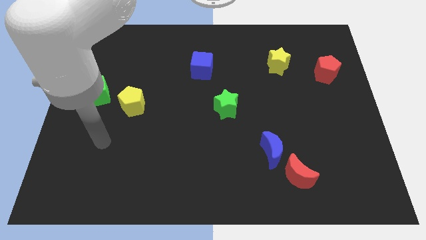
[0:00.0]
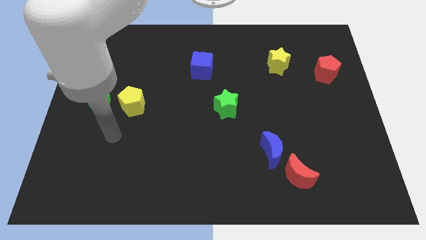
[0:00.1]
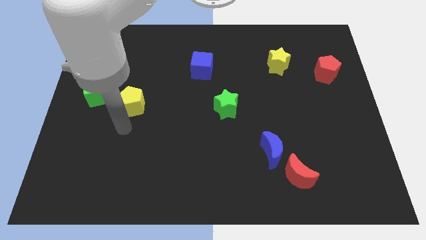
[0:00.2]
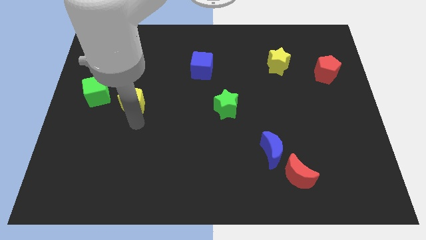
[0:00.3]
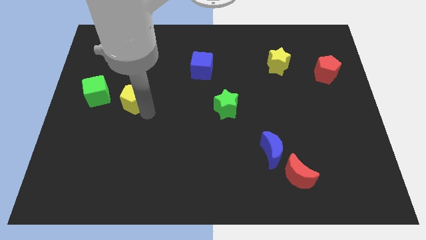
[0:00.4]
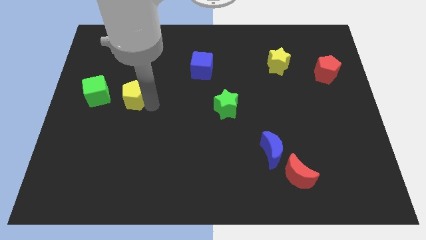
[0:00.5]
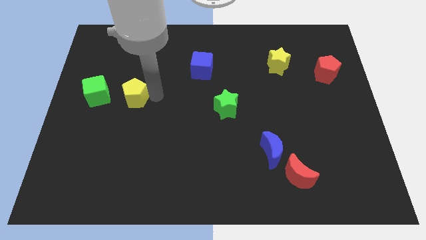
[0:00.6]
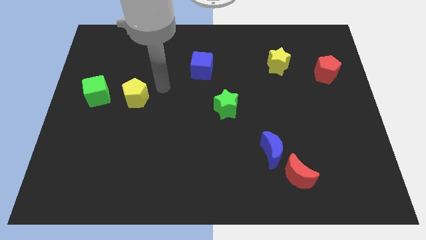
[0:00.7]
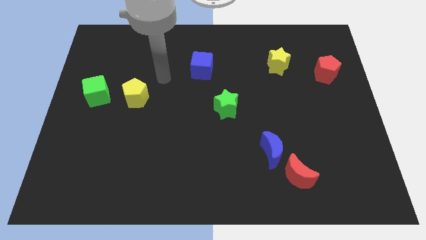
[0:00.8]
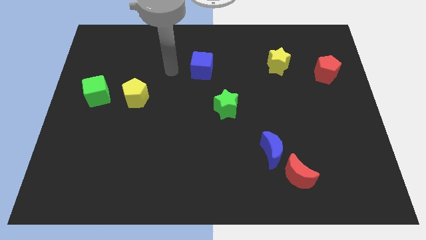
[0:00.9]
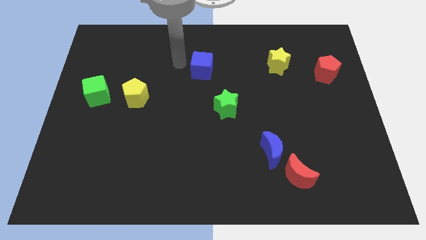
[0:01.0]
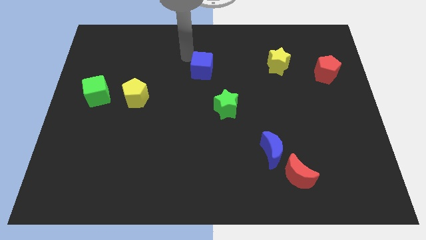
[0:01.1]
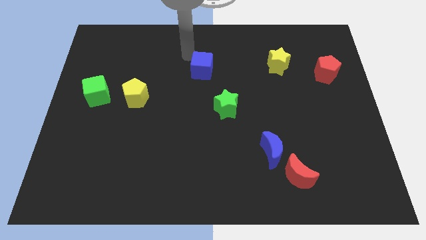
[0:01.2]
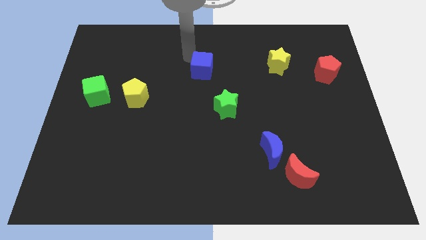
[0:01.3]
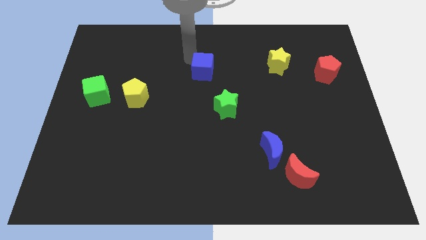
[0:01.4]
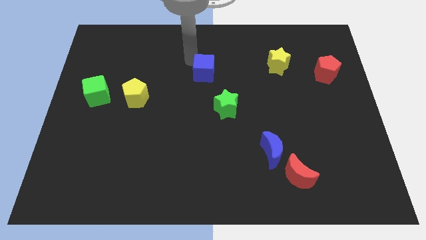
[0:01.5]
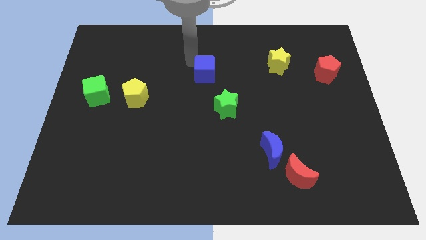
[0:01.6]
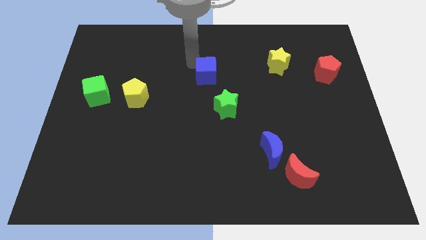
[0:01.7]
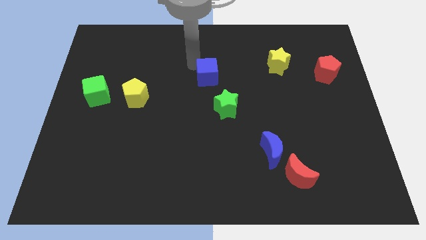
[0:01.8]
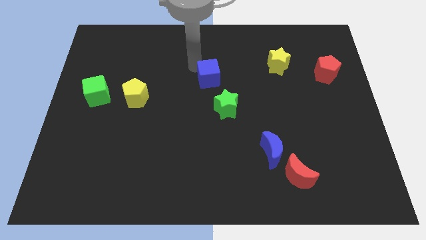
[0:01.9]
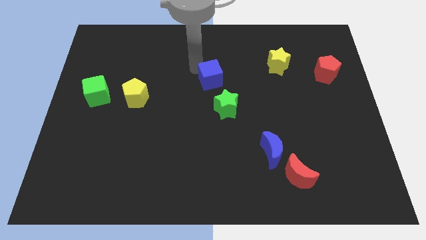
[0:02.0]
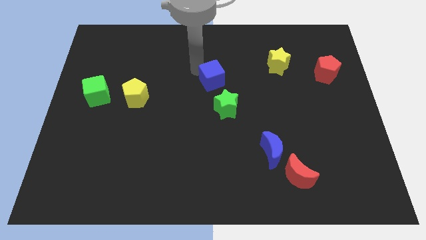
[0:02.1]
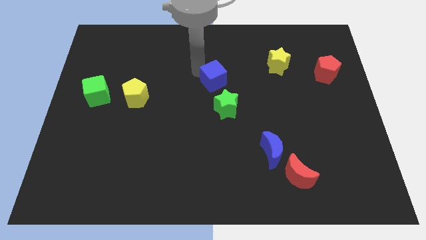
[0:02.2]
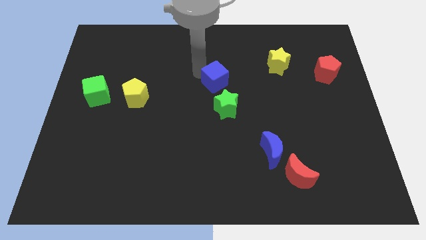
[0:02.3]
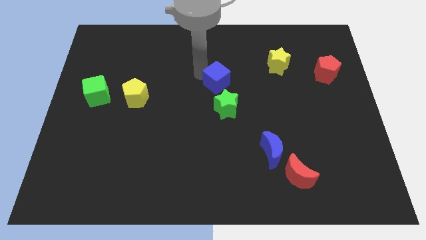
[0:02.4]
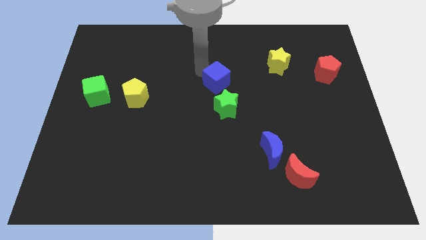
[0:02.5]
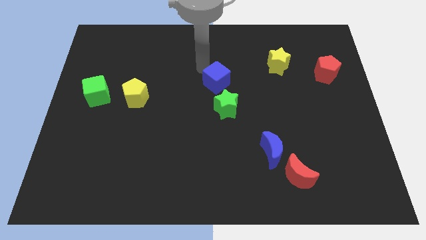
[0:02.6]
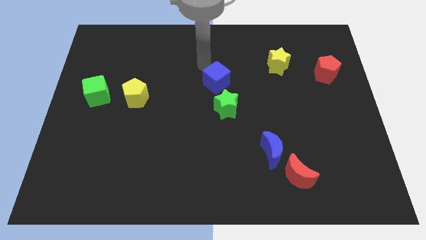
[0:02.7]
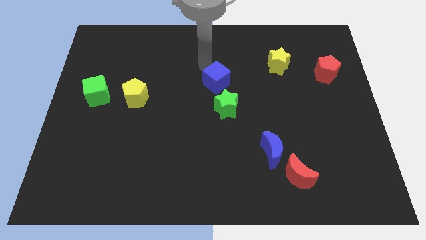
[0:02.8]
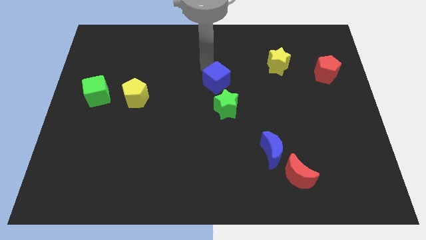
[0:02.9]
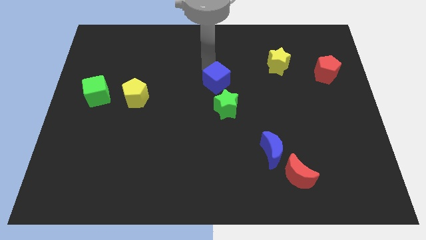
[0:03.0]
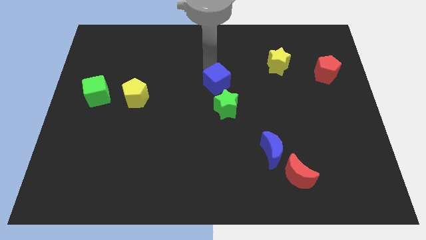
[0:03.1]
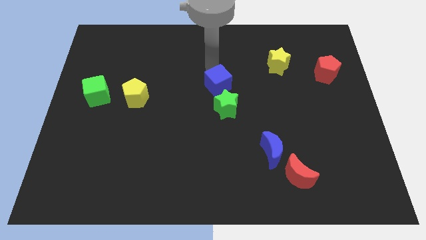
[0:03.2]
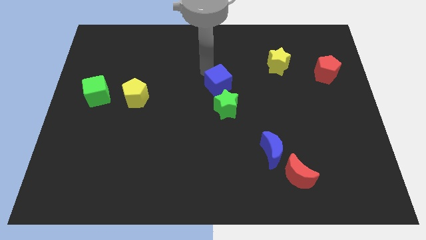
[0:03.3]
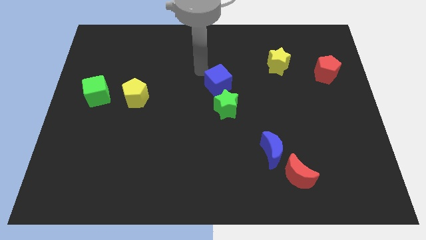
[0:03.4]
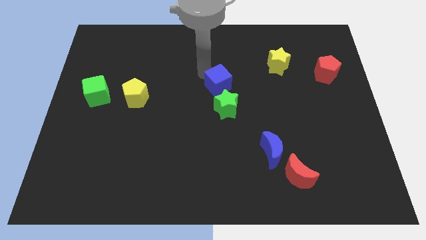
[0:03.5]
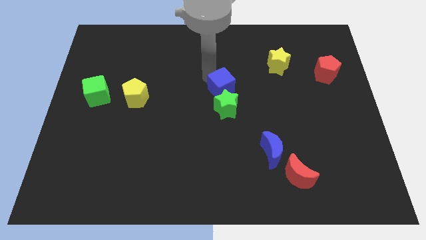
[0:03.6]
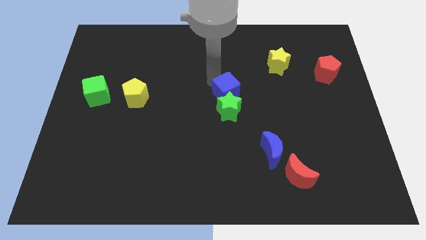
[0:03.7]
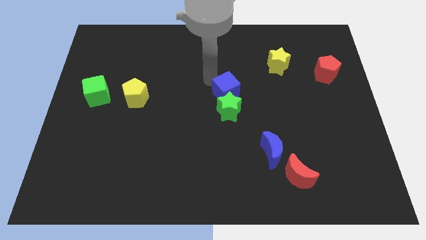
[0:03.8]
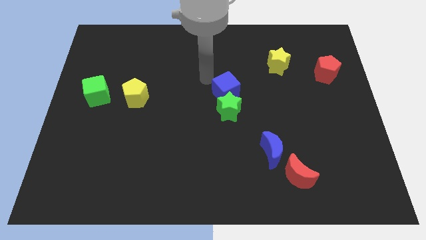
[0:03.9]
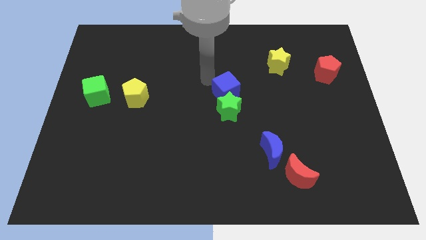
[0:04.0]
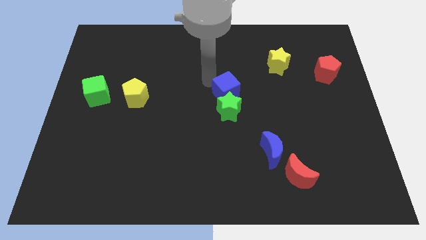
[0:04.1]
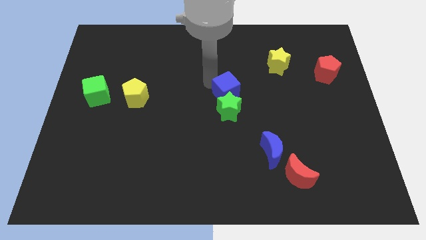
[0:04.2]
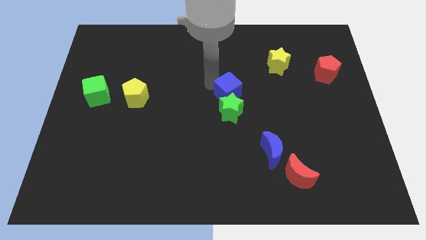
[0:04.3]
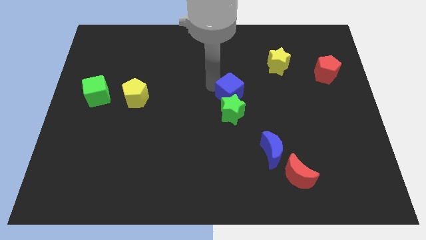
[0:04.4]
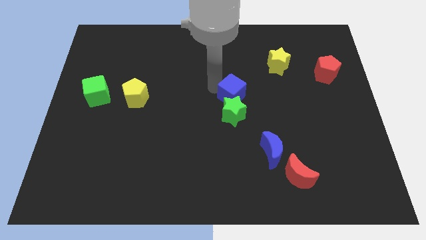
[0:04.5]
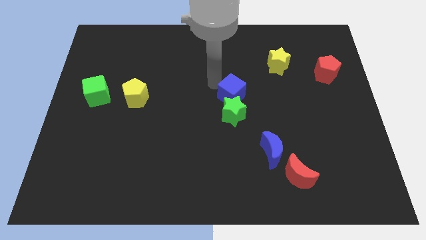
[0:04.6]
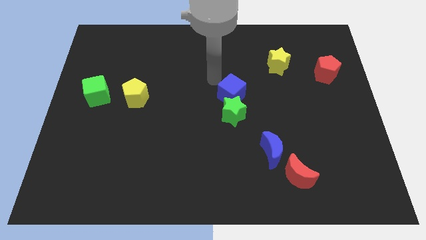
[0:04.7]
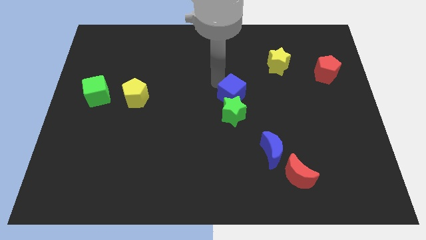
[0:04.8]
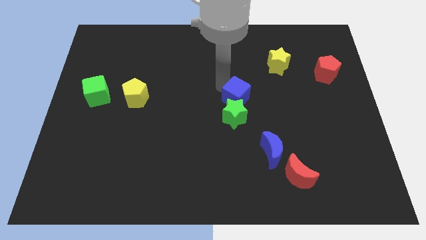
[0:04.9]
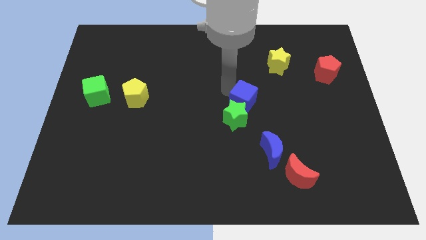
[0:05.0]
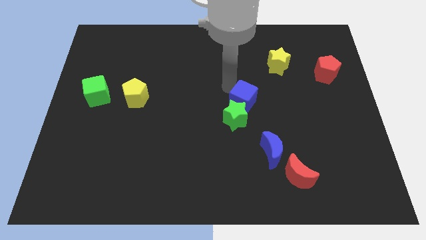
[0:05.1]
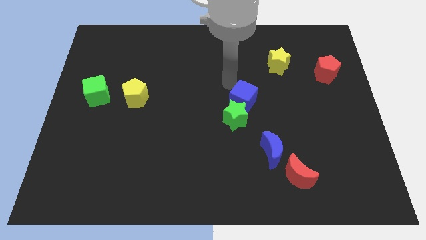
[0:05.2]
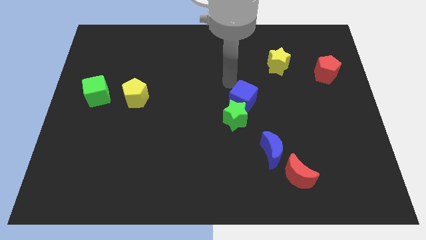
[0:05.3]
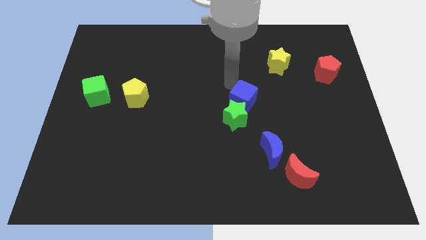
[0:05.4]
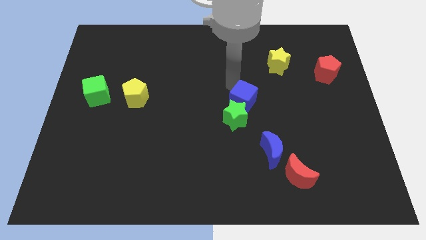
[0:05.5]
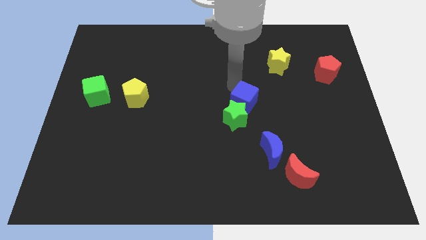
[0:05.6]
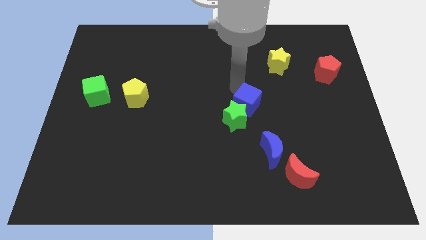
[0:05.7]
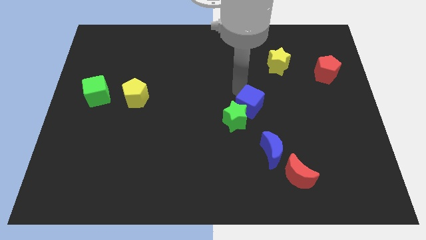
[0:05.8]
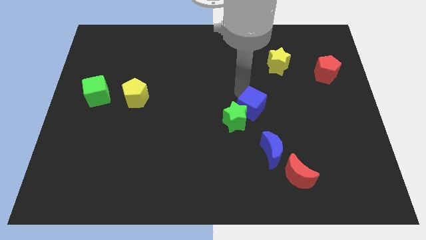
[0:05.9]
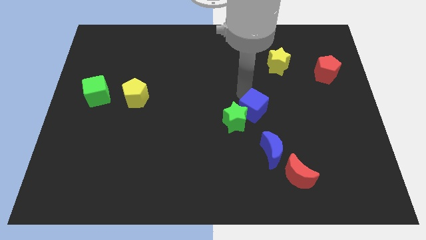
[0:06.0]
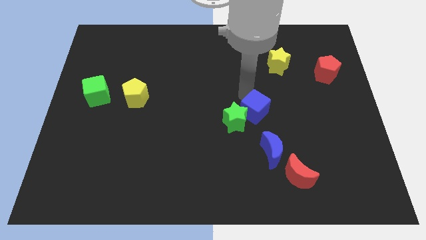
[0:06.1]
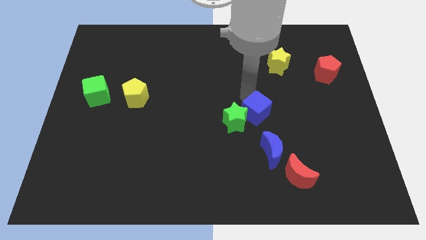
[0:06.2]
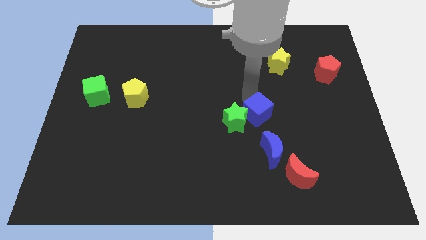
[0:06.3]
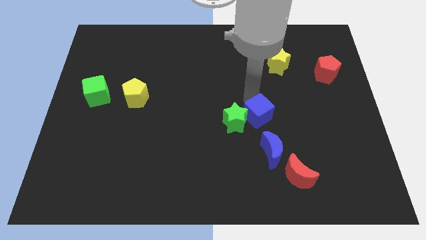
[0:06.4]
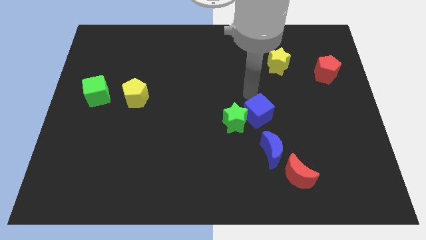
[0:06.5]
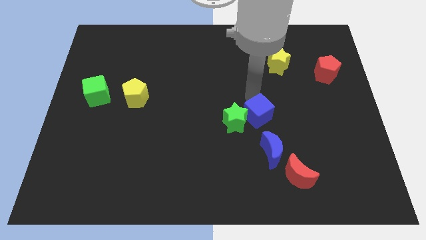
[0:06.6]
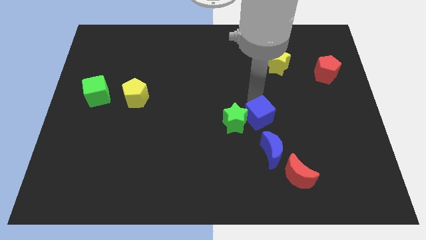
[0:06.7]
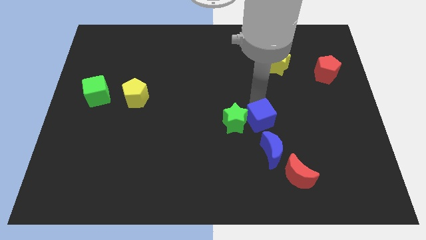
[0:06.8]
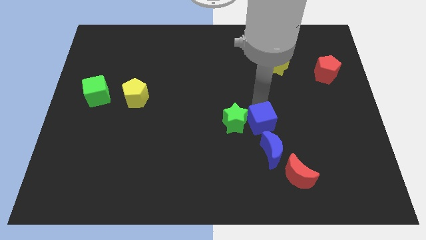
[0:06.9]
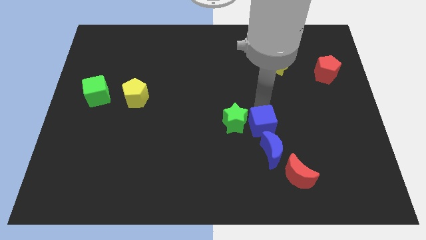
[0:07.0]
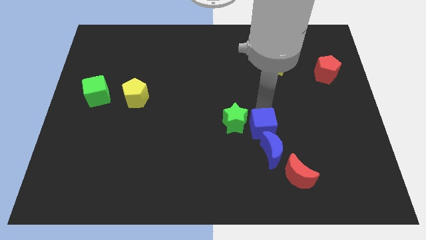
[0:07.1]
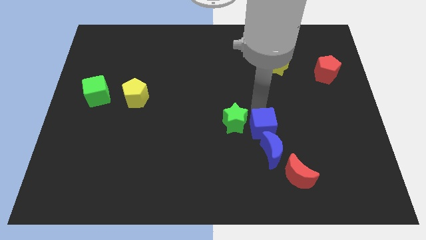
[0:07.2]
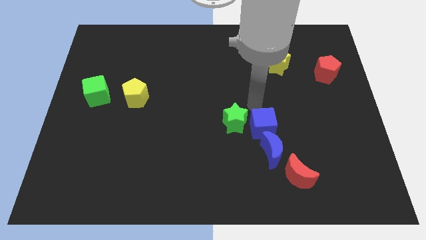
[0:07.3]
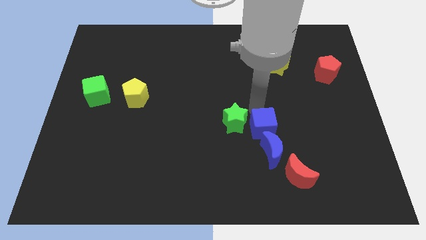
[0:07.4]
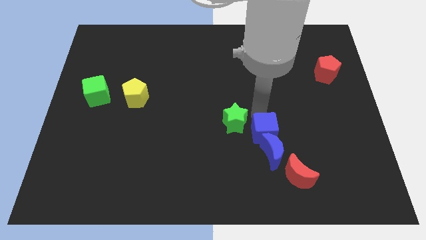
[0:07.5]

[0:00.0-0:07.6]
move the blue cube close to the blue moon
